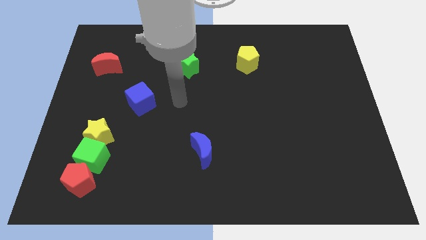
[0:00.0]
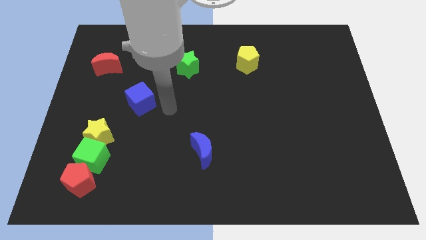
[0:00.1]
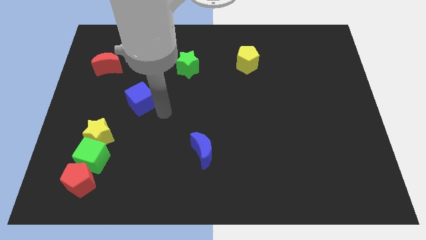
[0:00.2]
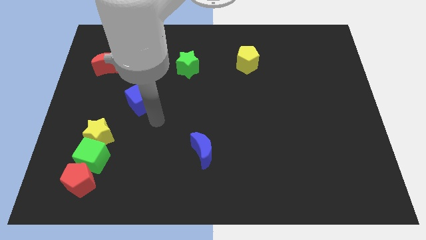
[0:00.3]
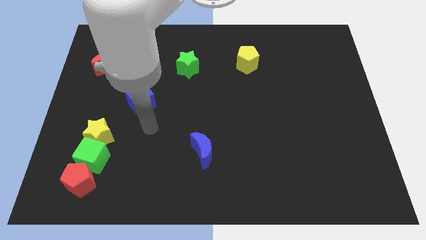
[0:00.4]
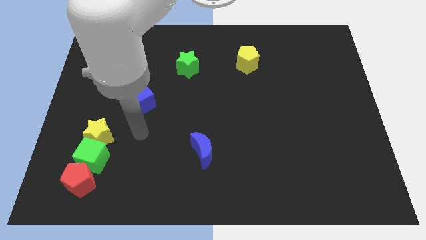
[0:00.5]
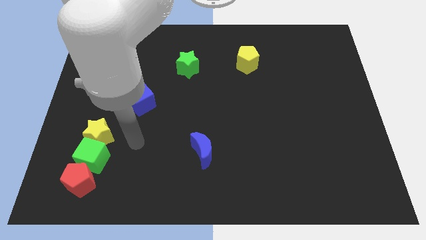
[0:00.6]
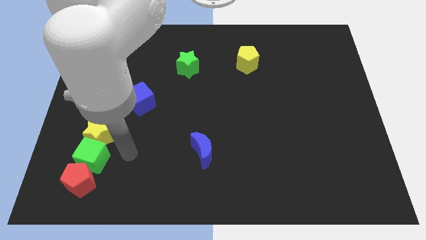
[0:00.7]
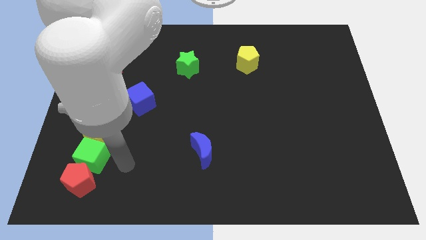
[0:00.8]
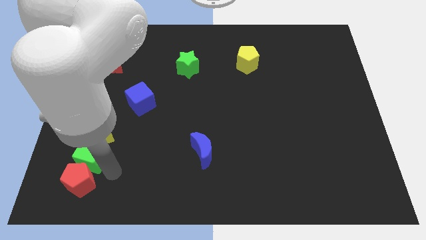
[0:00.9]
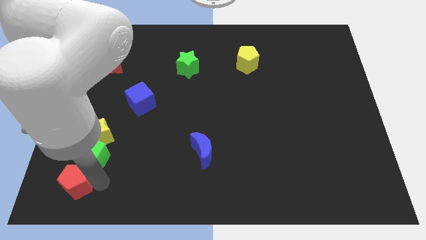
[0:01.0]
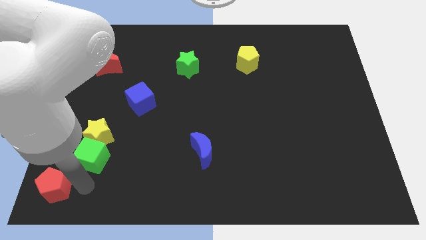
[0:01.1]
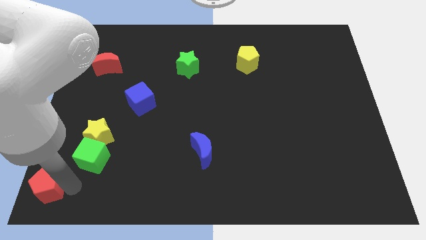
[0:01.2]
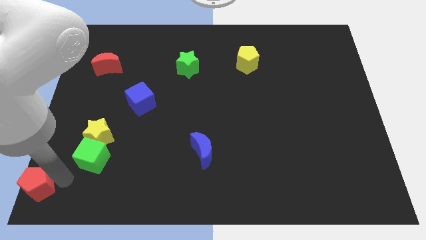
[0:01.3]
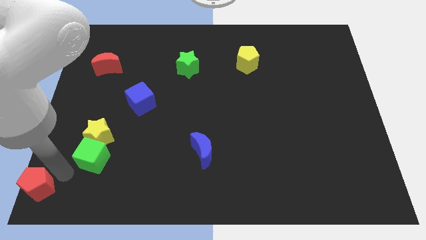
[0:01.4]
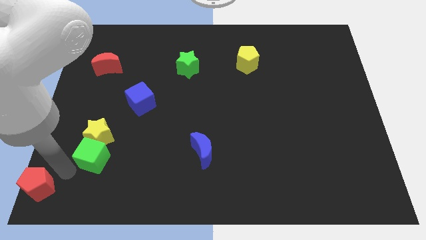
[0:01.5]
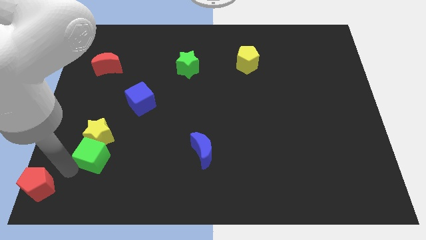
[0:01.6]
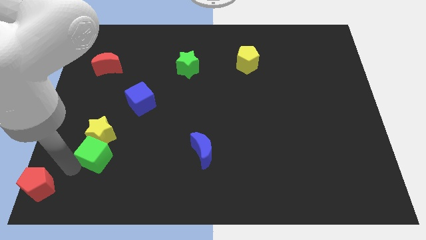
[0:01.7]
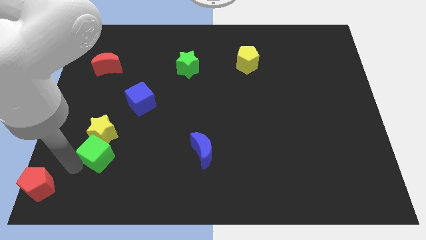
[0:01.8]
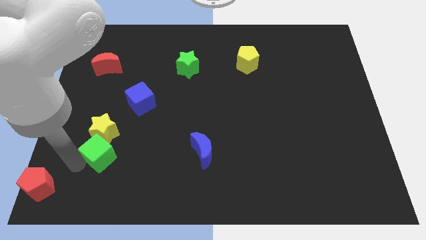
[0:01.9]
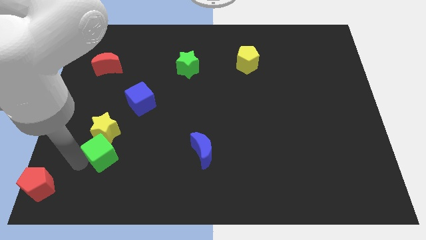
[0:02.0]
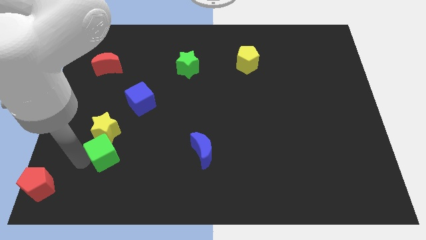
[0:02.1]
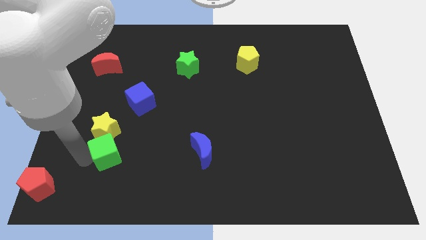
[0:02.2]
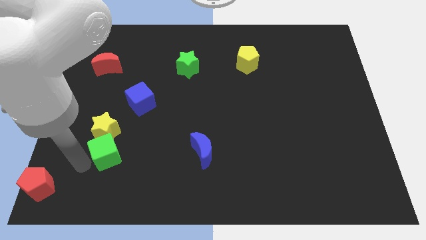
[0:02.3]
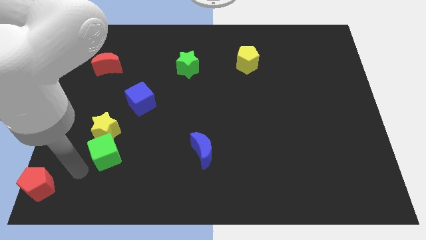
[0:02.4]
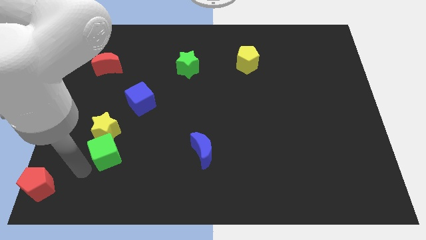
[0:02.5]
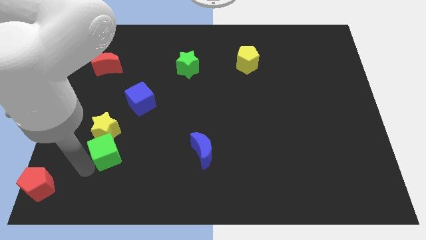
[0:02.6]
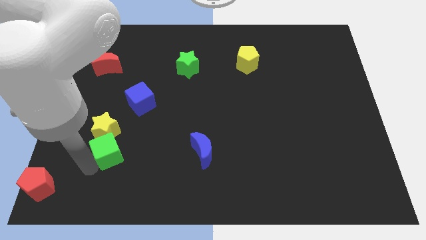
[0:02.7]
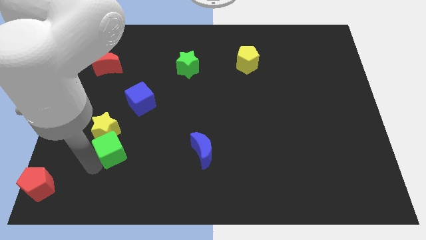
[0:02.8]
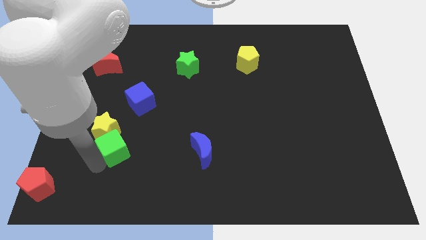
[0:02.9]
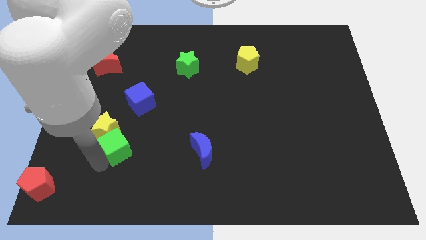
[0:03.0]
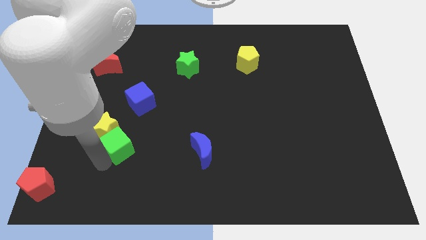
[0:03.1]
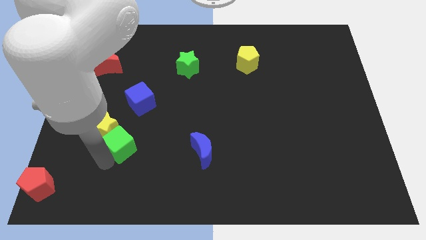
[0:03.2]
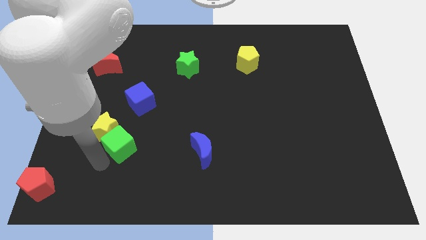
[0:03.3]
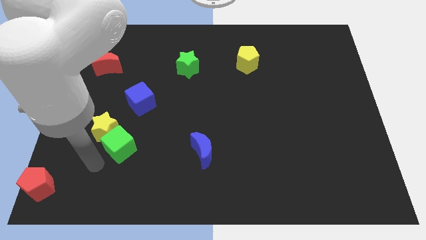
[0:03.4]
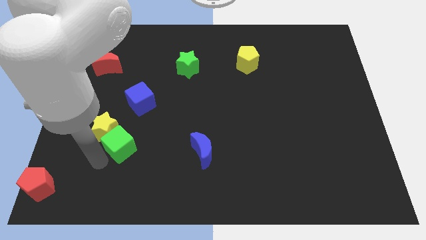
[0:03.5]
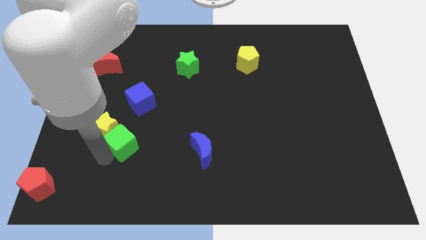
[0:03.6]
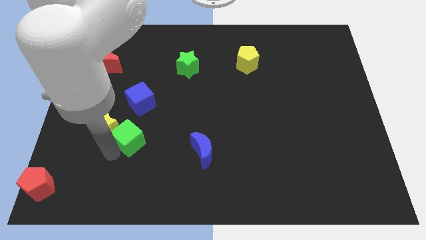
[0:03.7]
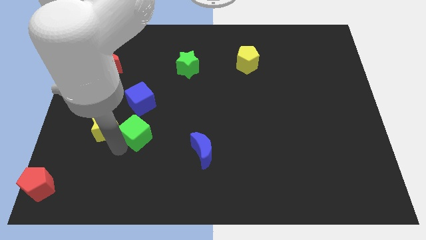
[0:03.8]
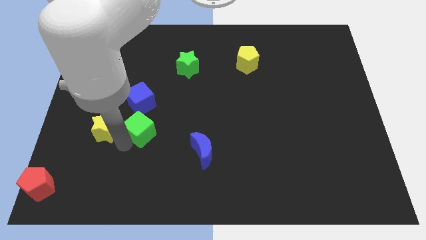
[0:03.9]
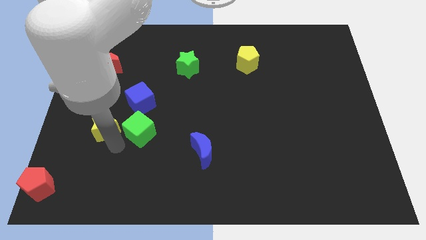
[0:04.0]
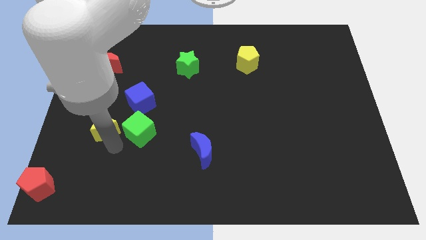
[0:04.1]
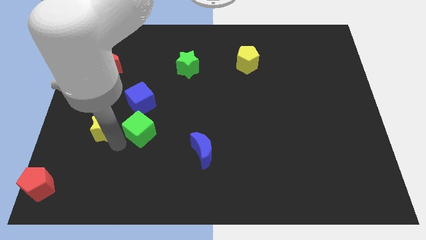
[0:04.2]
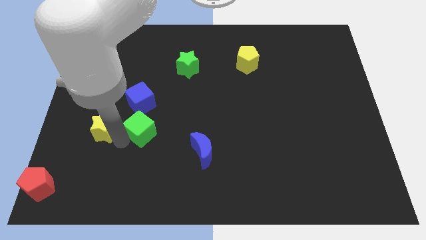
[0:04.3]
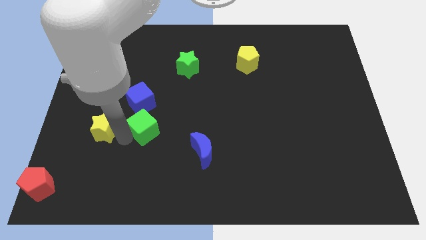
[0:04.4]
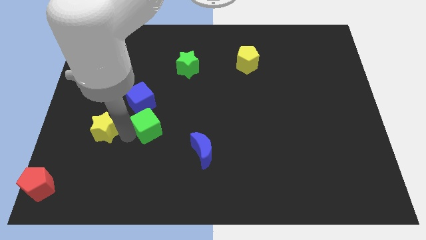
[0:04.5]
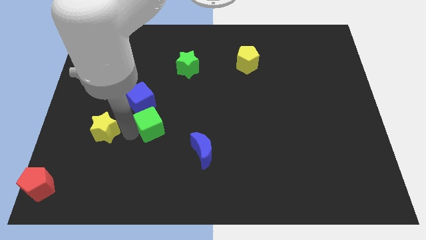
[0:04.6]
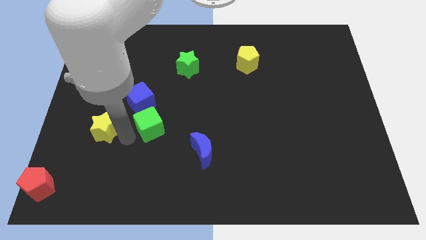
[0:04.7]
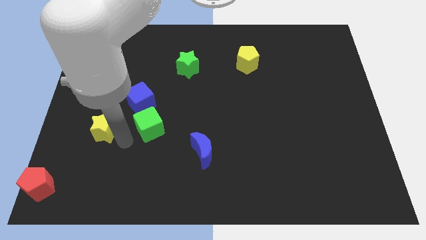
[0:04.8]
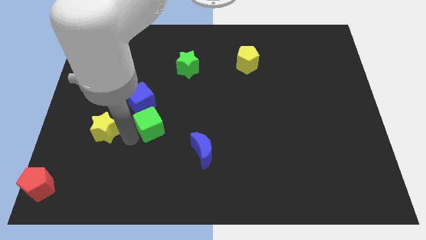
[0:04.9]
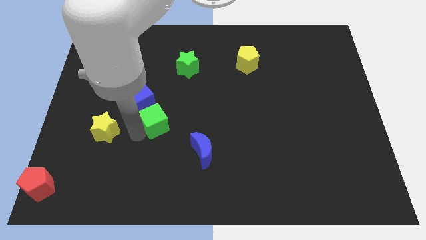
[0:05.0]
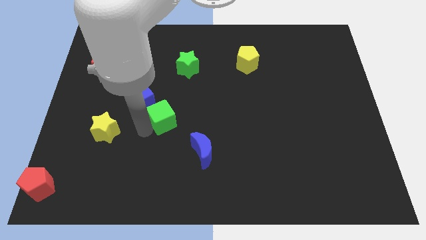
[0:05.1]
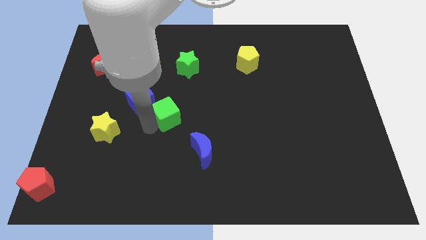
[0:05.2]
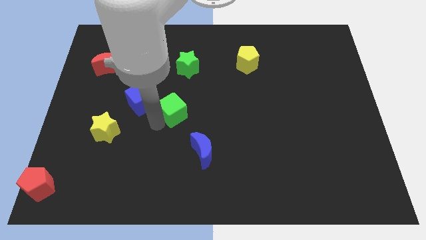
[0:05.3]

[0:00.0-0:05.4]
move the green cube below the green star

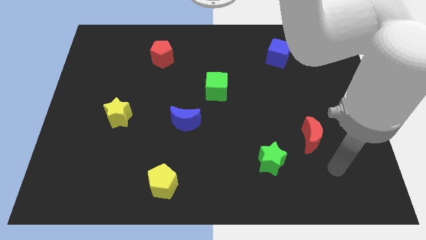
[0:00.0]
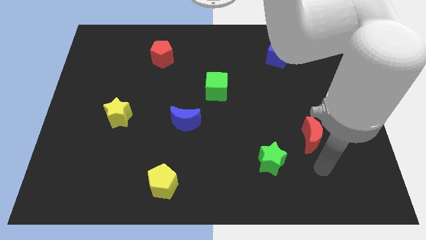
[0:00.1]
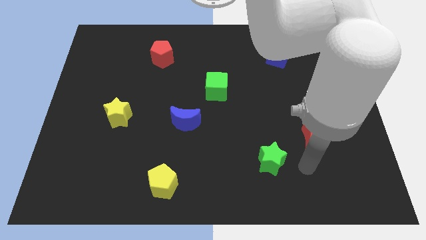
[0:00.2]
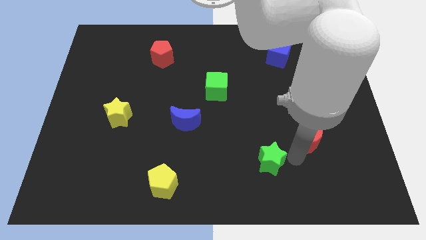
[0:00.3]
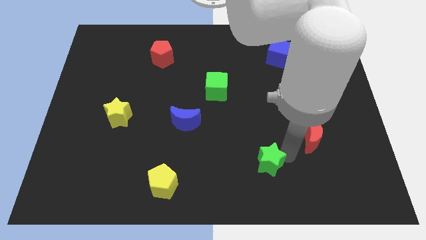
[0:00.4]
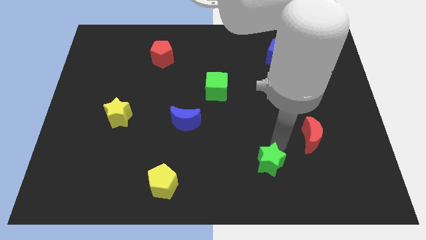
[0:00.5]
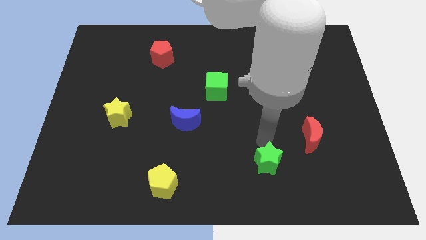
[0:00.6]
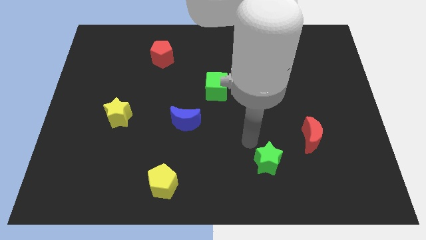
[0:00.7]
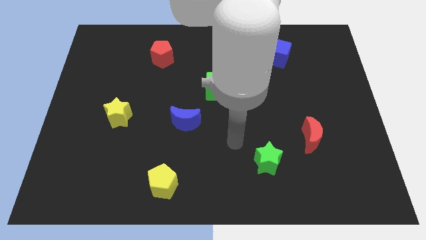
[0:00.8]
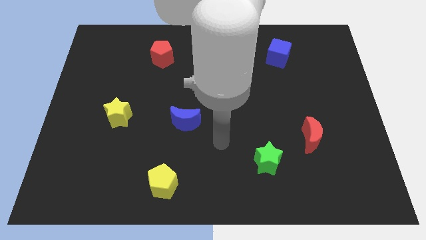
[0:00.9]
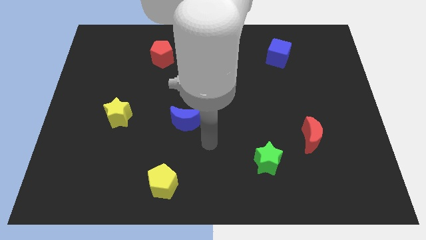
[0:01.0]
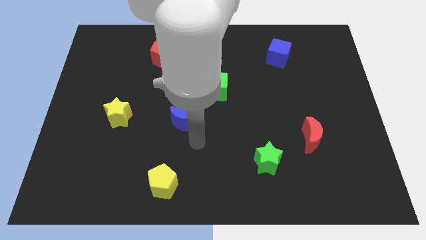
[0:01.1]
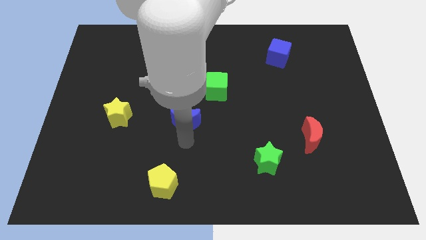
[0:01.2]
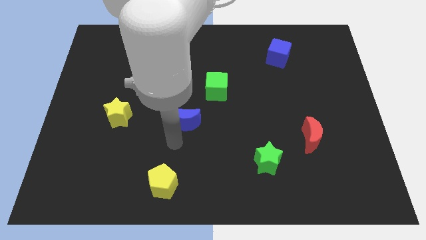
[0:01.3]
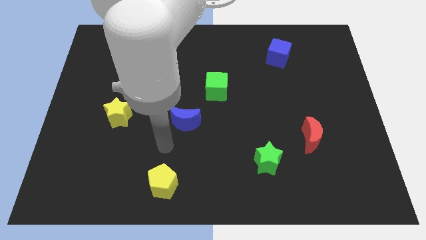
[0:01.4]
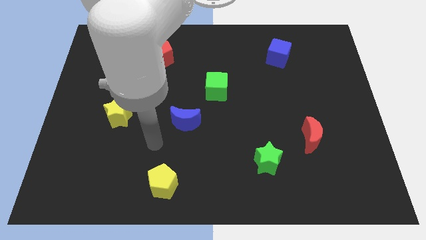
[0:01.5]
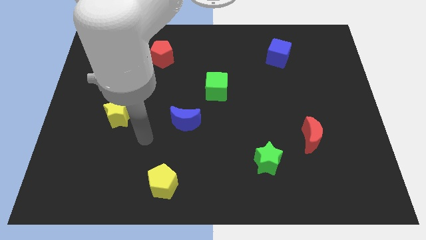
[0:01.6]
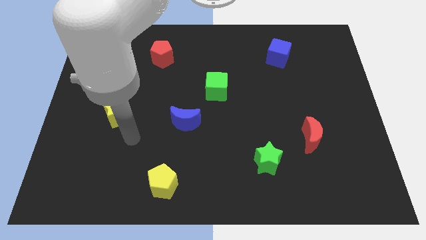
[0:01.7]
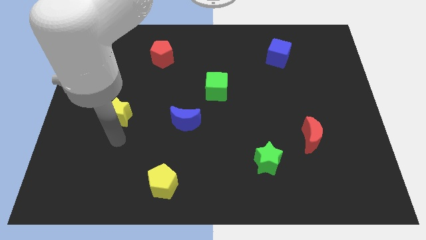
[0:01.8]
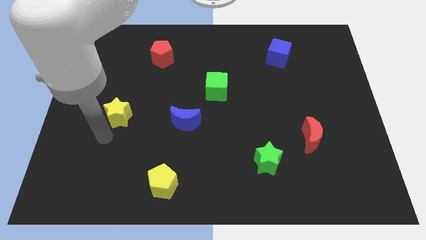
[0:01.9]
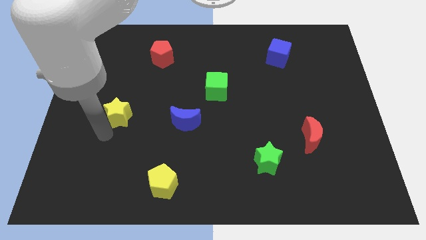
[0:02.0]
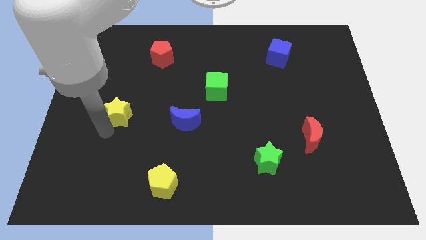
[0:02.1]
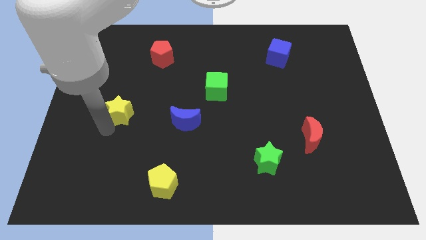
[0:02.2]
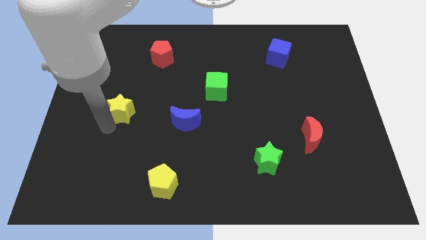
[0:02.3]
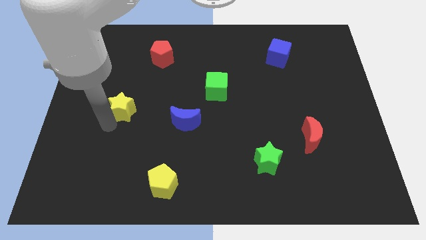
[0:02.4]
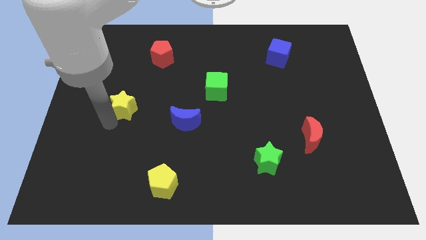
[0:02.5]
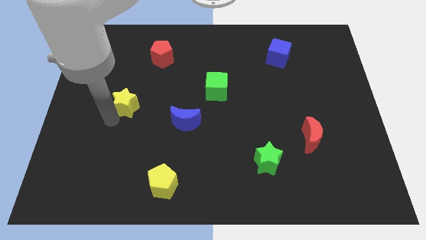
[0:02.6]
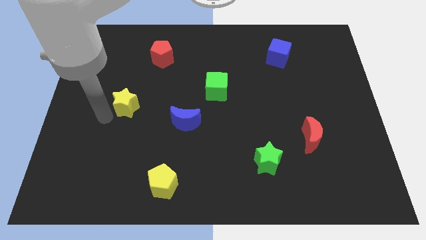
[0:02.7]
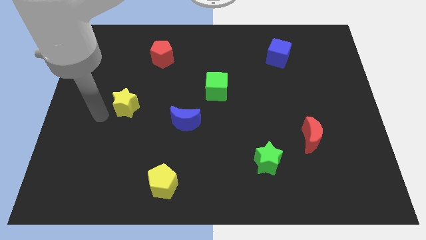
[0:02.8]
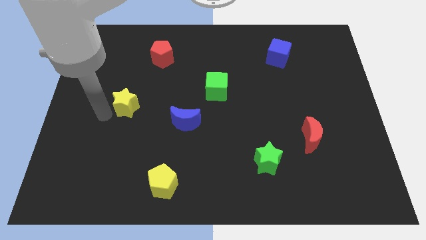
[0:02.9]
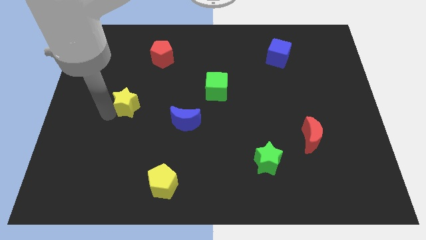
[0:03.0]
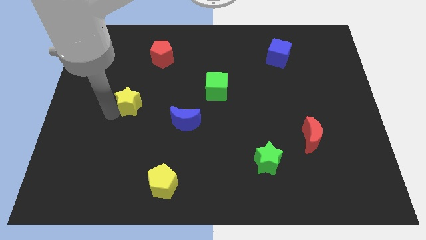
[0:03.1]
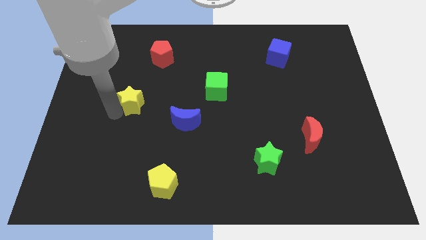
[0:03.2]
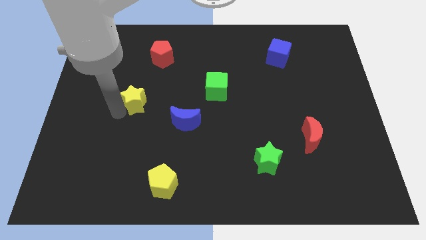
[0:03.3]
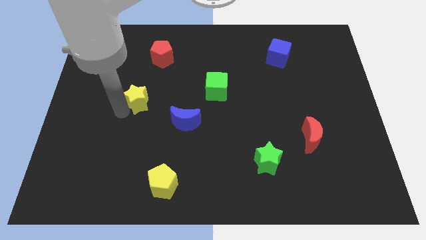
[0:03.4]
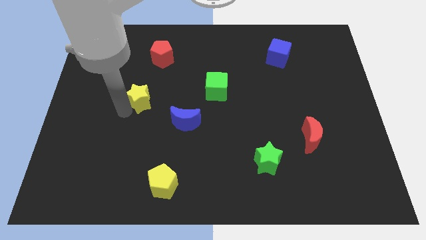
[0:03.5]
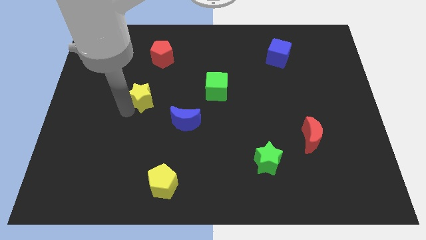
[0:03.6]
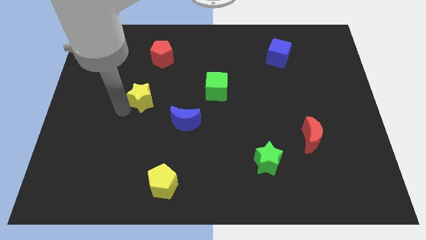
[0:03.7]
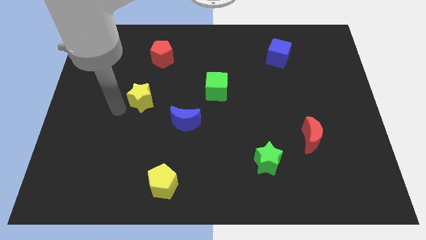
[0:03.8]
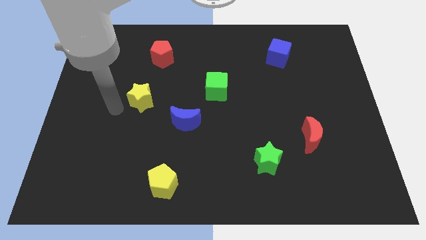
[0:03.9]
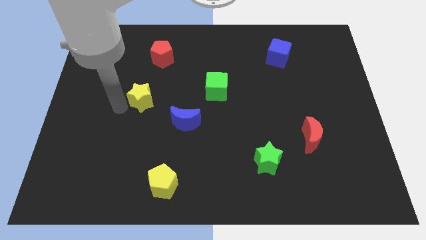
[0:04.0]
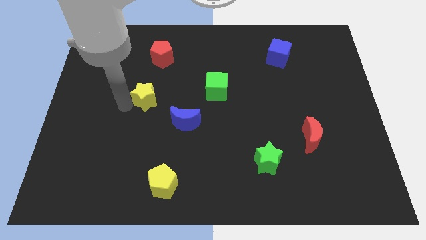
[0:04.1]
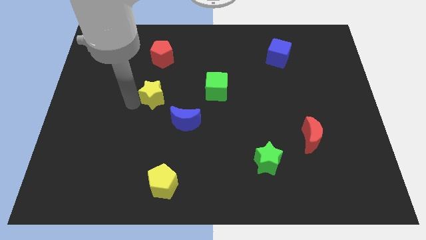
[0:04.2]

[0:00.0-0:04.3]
put the yellow star to the left side of the green cube
